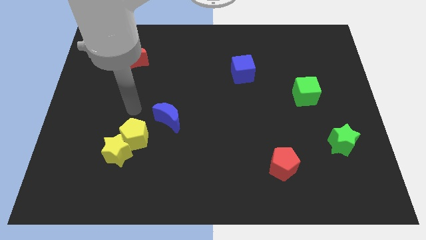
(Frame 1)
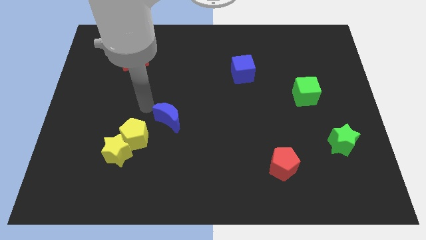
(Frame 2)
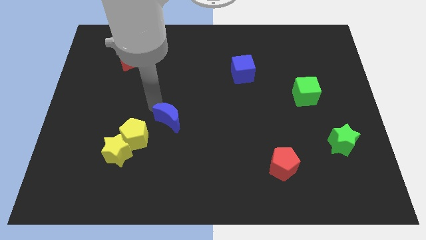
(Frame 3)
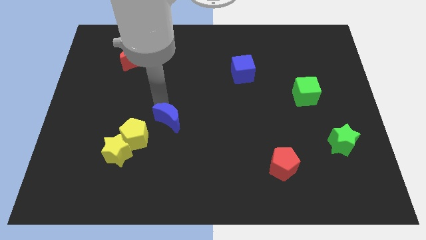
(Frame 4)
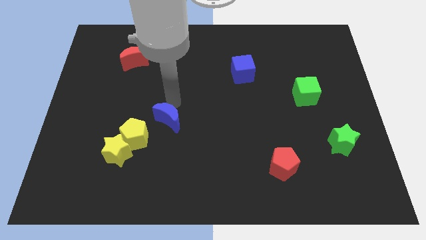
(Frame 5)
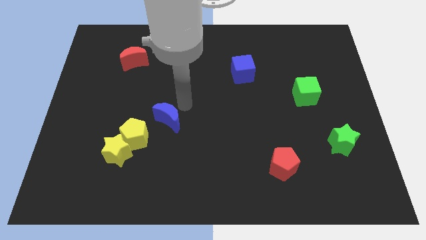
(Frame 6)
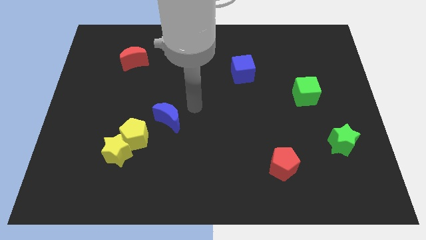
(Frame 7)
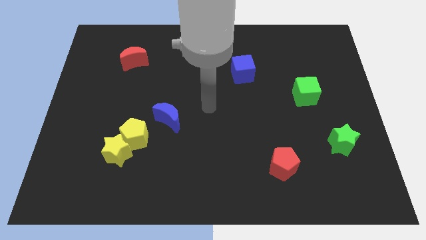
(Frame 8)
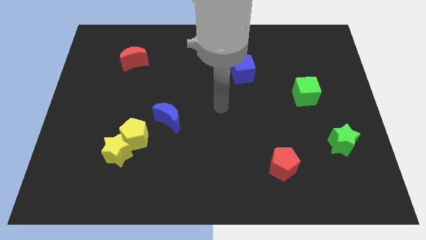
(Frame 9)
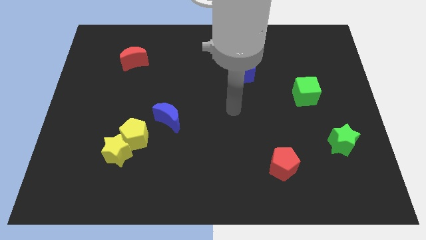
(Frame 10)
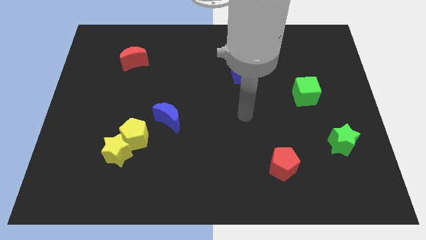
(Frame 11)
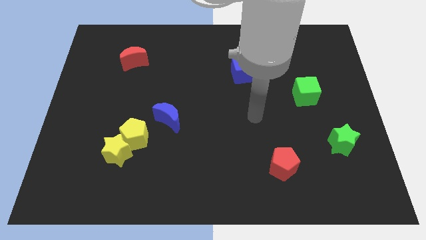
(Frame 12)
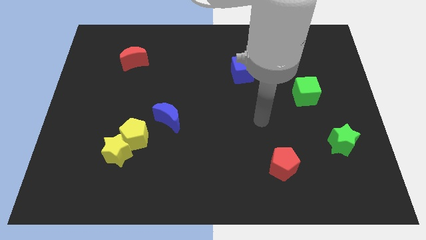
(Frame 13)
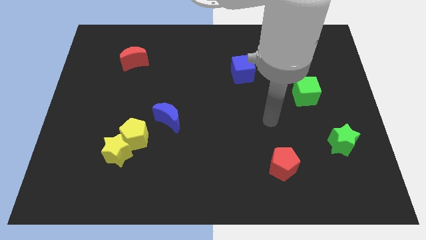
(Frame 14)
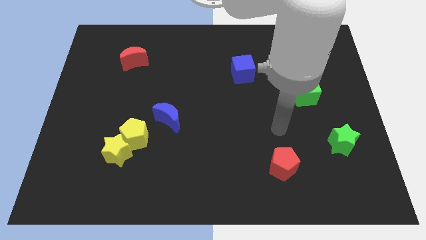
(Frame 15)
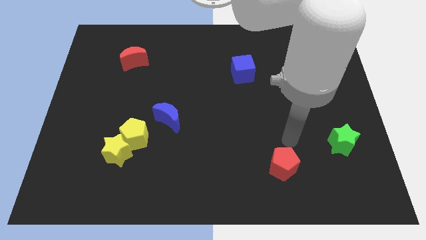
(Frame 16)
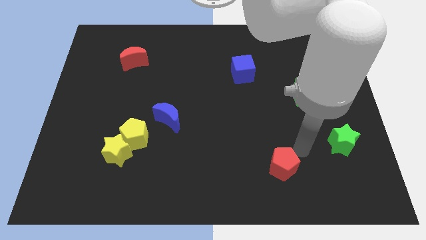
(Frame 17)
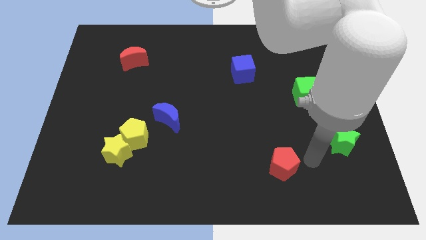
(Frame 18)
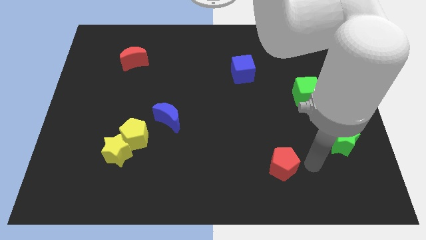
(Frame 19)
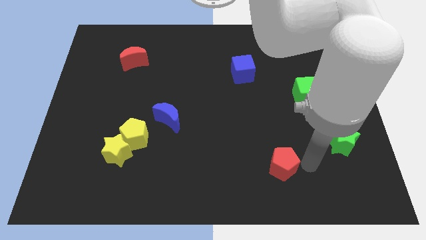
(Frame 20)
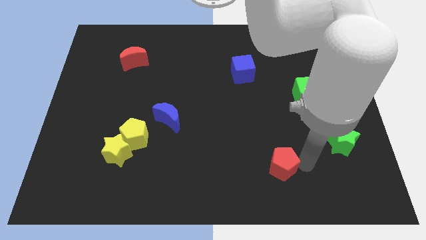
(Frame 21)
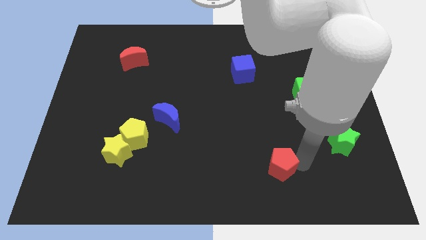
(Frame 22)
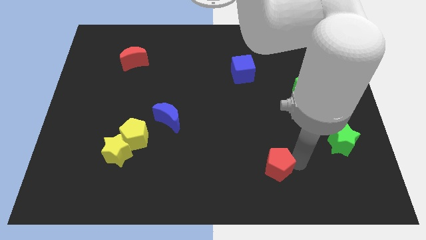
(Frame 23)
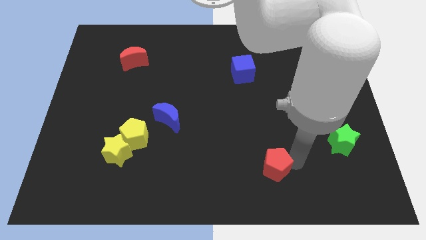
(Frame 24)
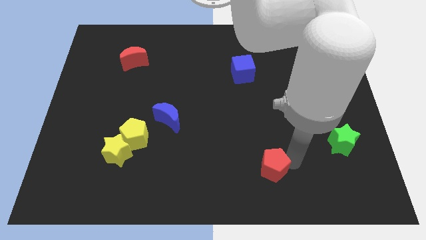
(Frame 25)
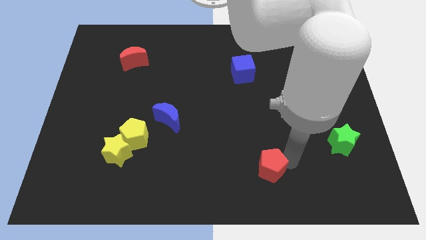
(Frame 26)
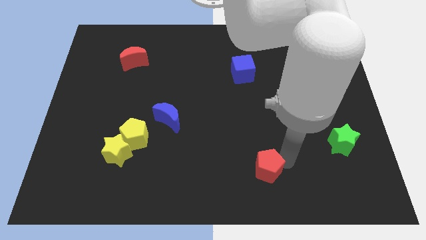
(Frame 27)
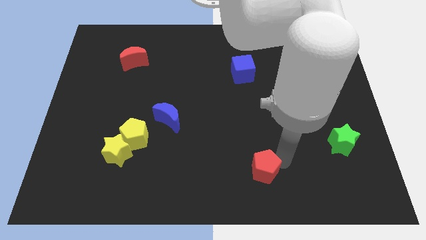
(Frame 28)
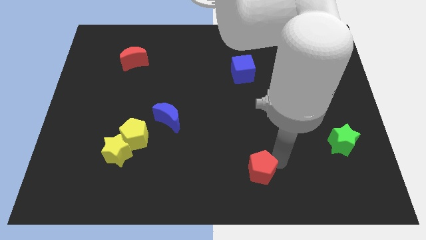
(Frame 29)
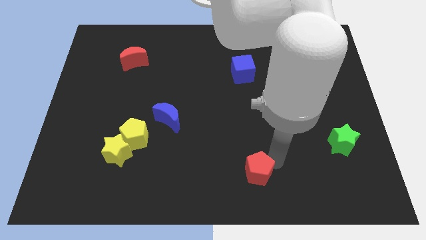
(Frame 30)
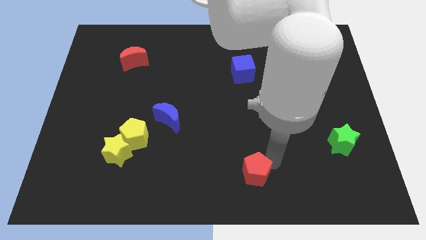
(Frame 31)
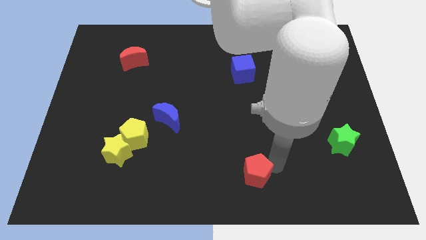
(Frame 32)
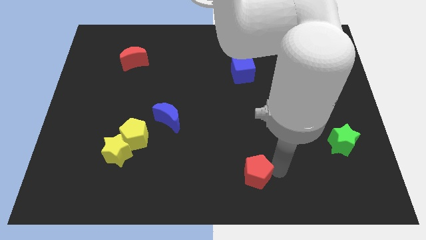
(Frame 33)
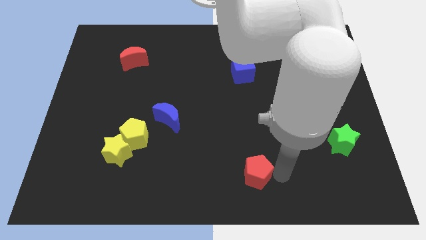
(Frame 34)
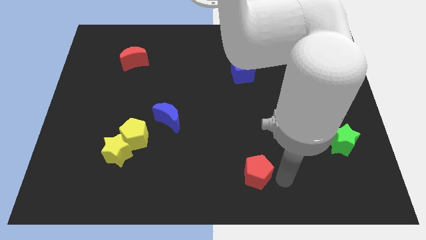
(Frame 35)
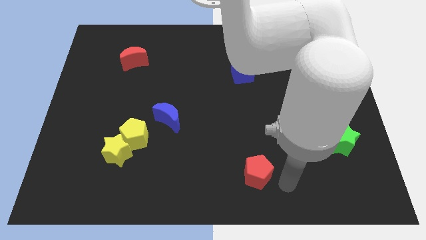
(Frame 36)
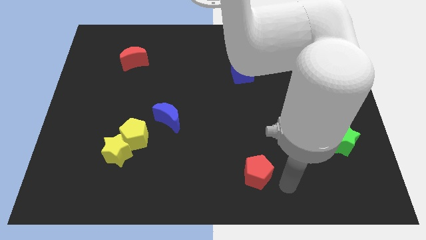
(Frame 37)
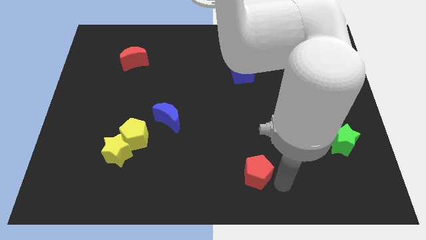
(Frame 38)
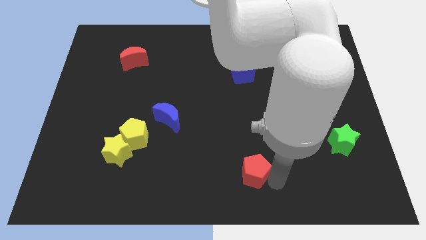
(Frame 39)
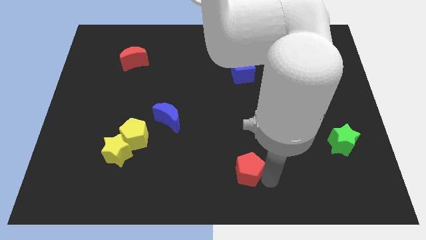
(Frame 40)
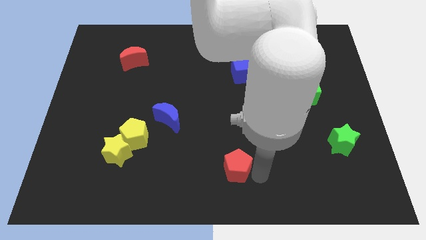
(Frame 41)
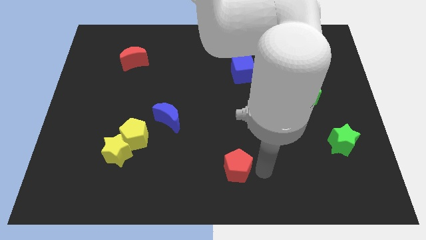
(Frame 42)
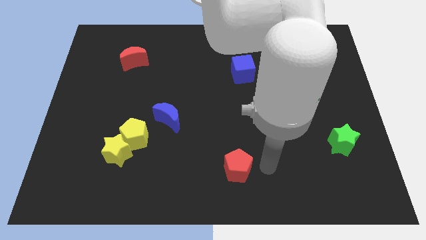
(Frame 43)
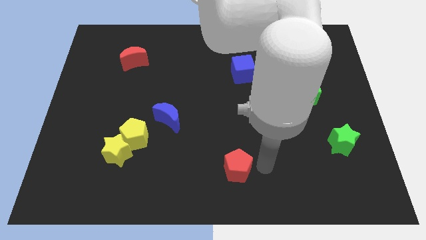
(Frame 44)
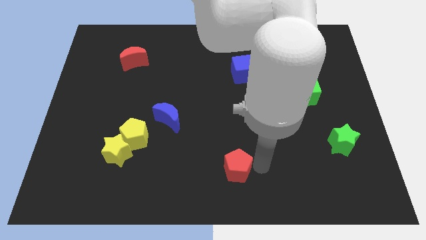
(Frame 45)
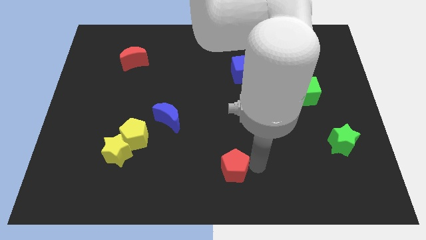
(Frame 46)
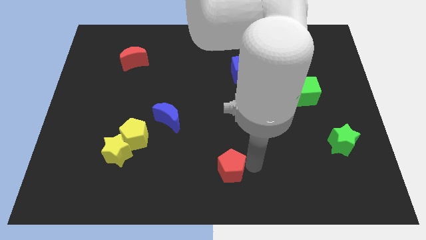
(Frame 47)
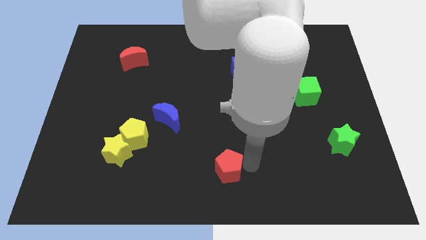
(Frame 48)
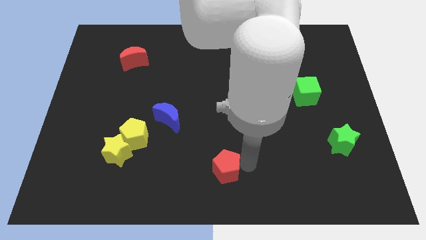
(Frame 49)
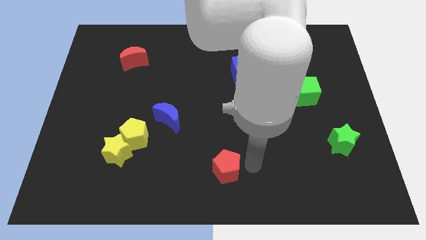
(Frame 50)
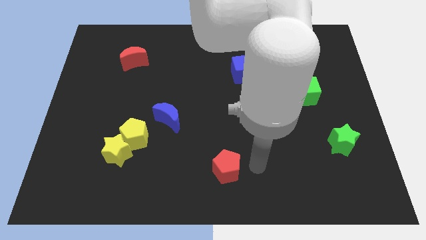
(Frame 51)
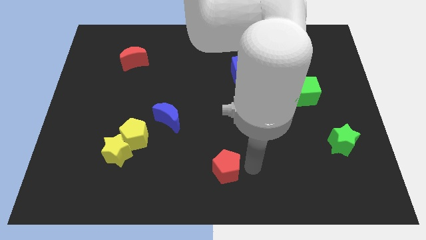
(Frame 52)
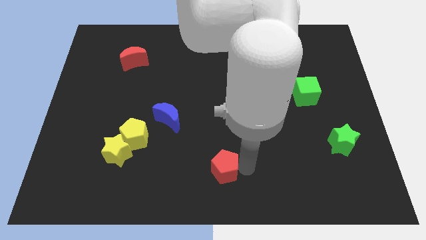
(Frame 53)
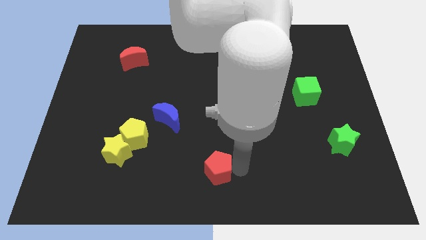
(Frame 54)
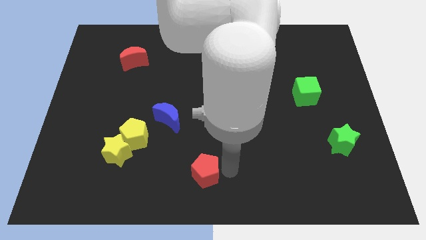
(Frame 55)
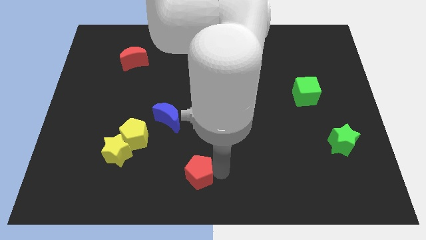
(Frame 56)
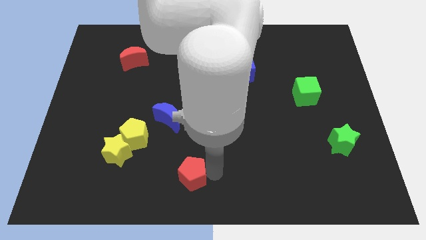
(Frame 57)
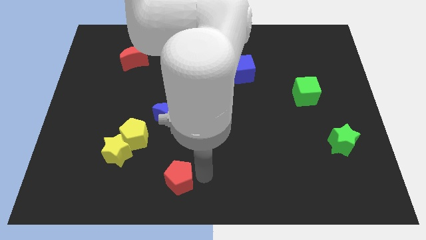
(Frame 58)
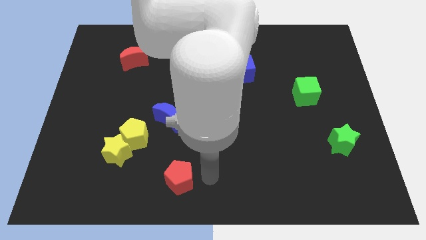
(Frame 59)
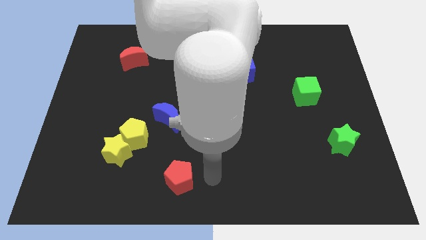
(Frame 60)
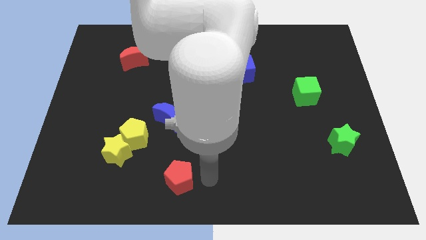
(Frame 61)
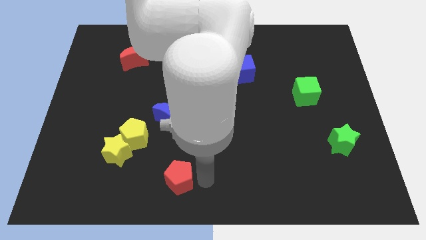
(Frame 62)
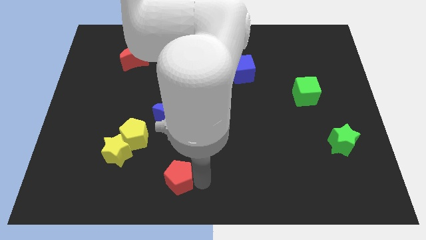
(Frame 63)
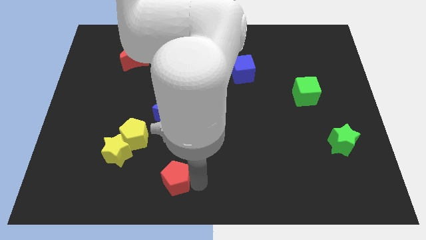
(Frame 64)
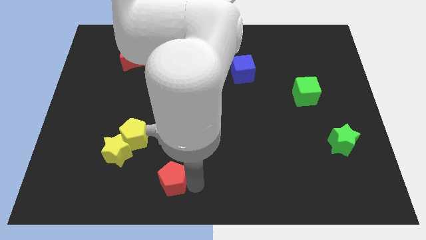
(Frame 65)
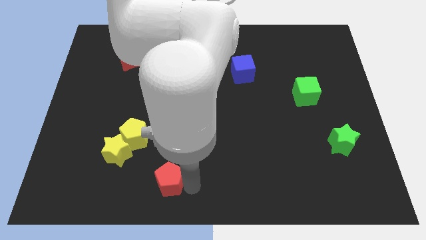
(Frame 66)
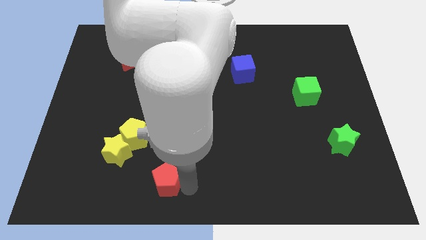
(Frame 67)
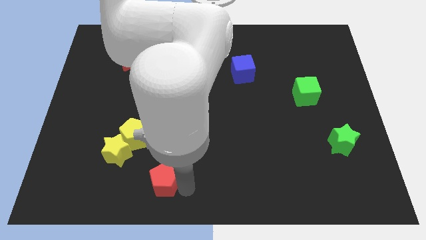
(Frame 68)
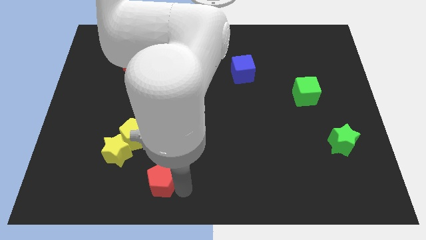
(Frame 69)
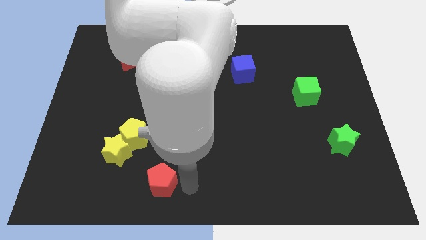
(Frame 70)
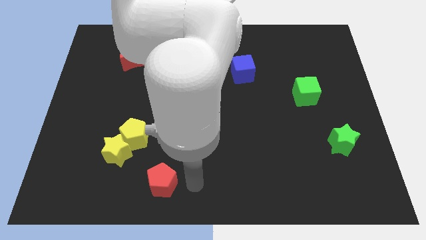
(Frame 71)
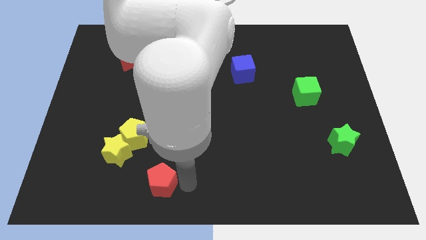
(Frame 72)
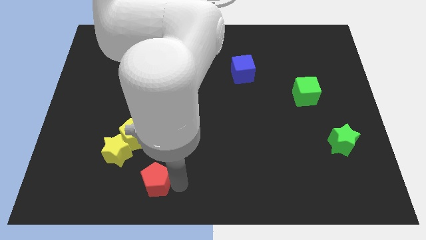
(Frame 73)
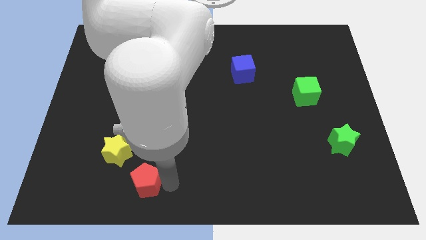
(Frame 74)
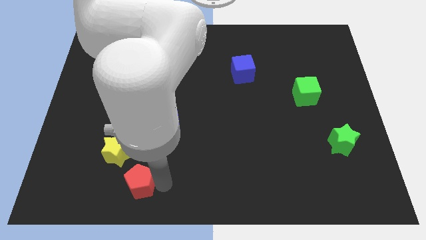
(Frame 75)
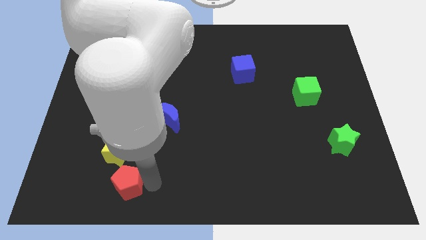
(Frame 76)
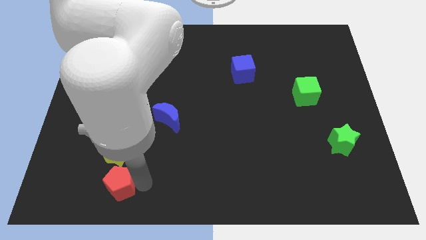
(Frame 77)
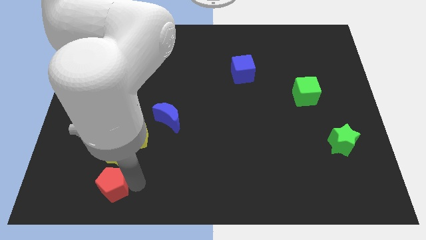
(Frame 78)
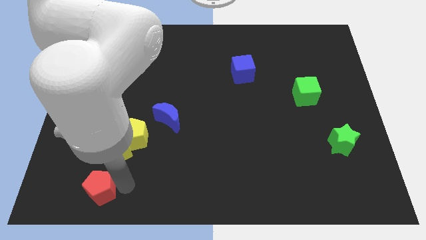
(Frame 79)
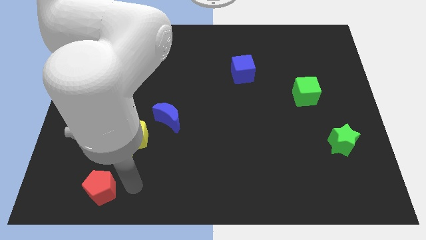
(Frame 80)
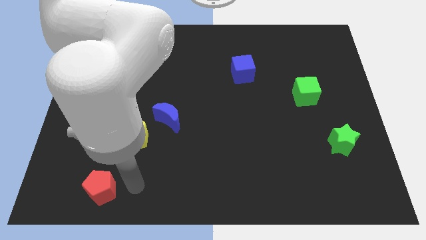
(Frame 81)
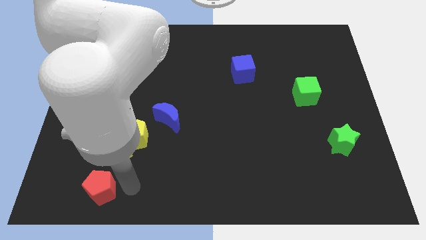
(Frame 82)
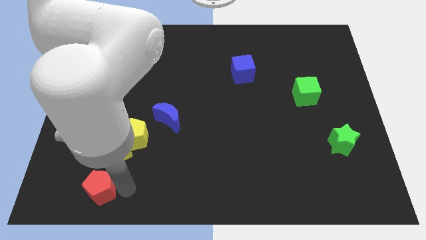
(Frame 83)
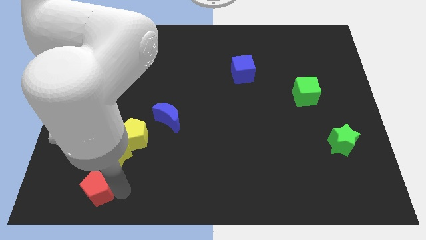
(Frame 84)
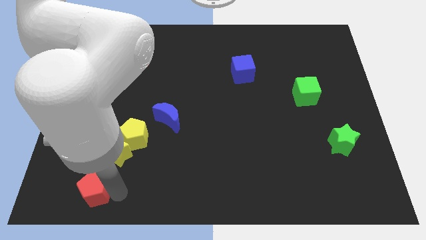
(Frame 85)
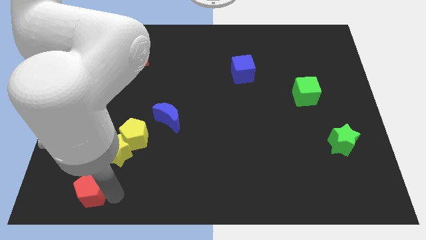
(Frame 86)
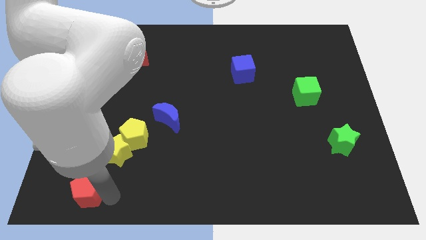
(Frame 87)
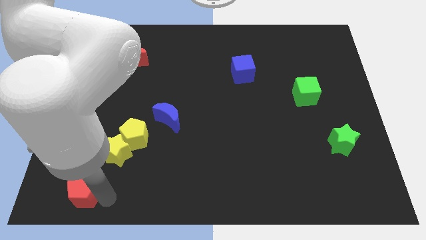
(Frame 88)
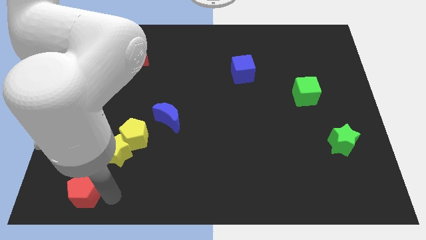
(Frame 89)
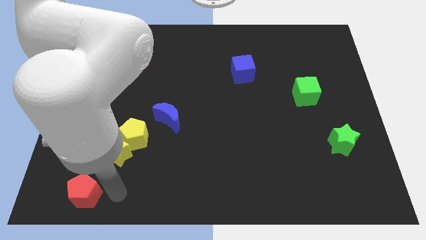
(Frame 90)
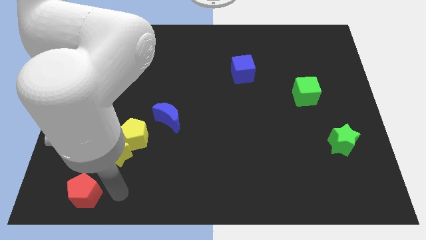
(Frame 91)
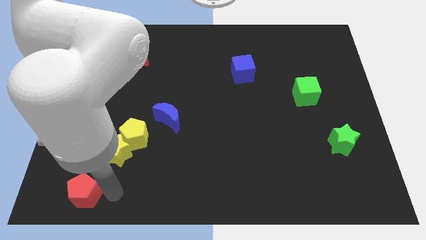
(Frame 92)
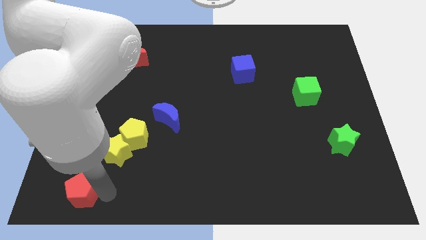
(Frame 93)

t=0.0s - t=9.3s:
put the red pentagon to the lower left corner
